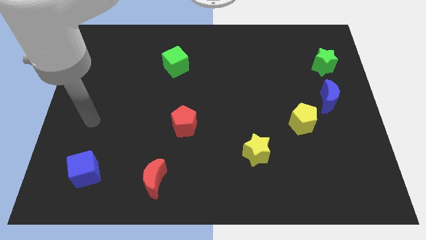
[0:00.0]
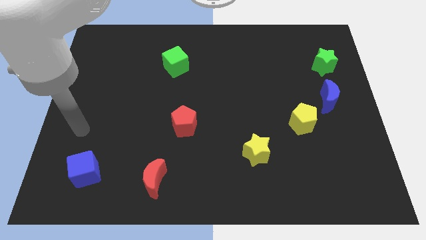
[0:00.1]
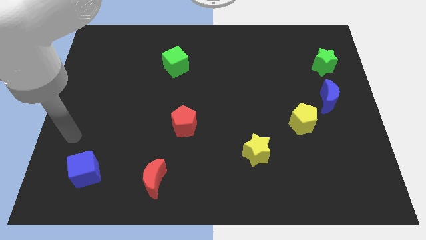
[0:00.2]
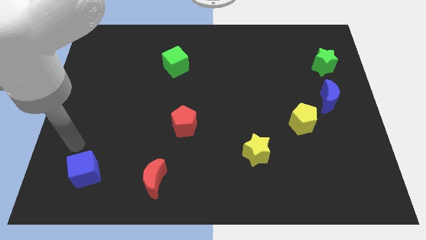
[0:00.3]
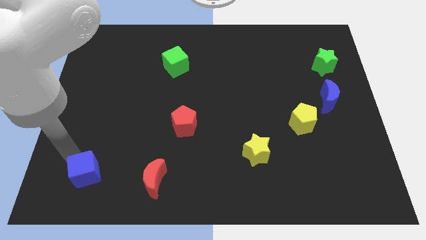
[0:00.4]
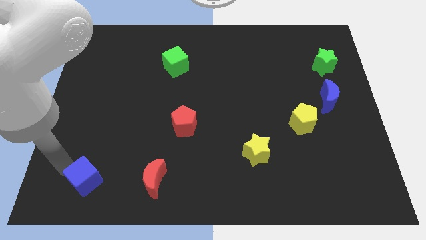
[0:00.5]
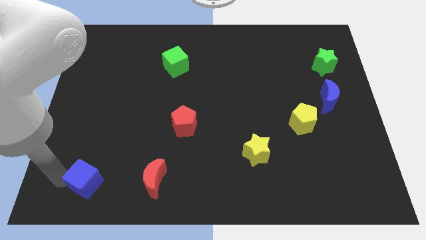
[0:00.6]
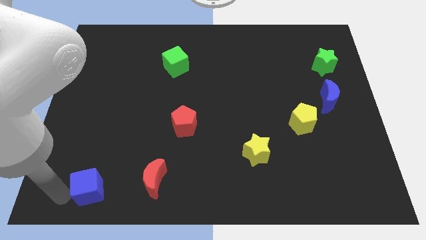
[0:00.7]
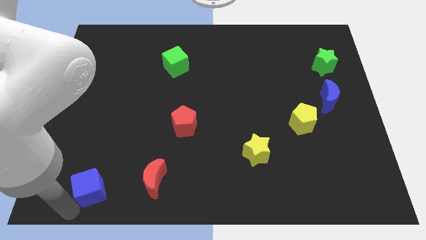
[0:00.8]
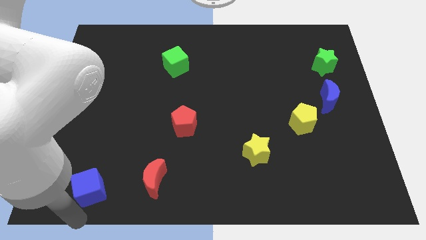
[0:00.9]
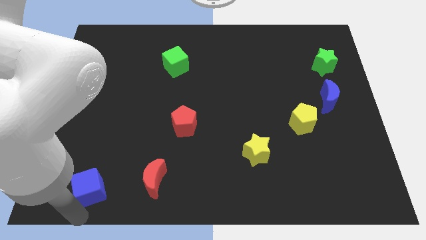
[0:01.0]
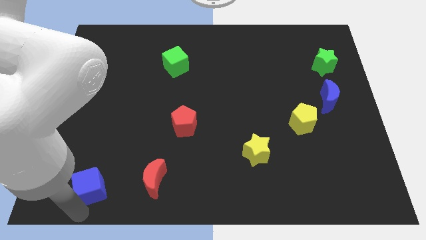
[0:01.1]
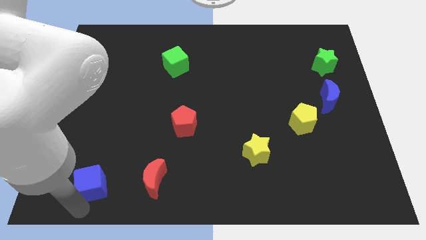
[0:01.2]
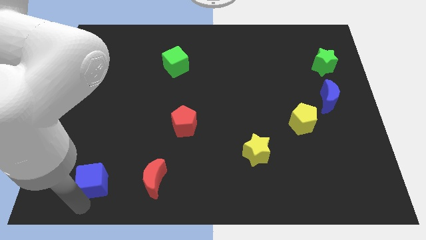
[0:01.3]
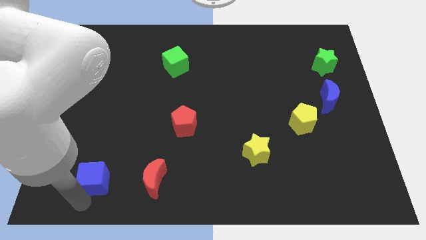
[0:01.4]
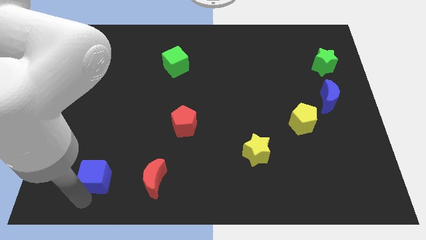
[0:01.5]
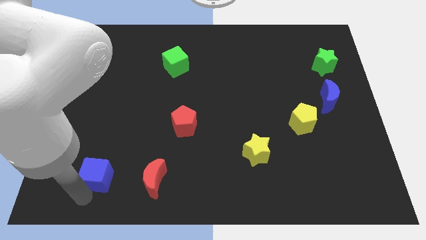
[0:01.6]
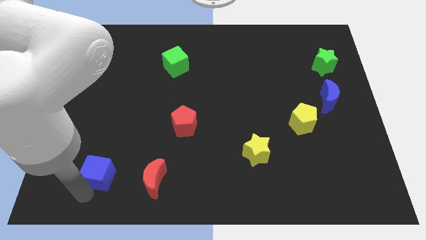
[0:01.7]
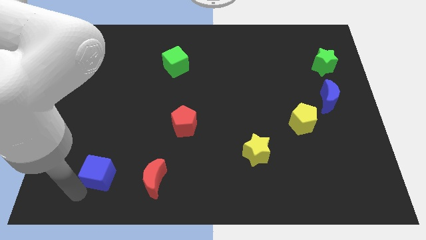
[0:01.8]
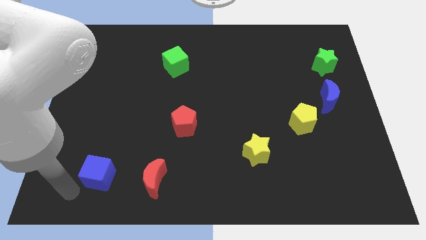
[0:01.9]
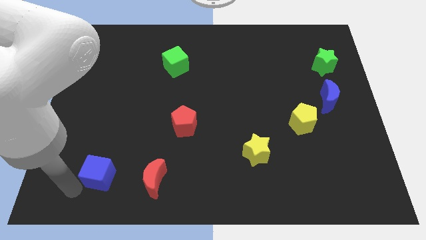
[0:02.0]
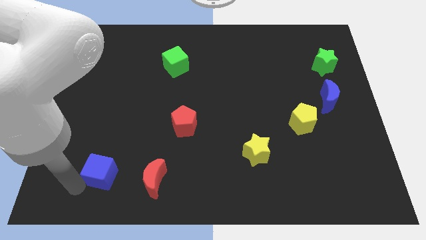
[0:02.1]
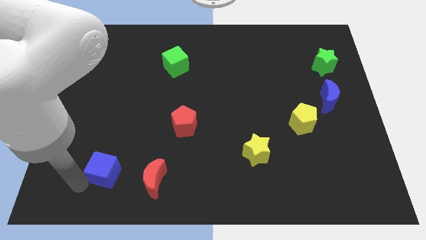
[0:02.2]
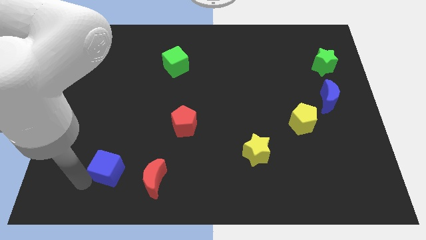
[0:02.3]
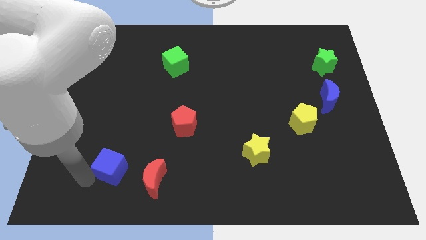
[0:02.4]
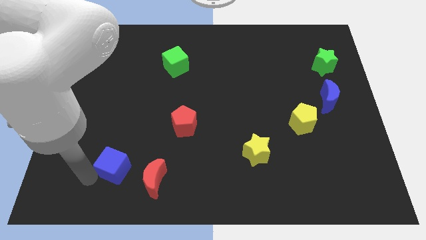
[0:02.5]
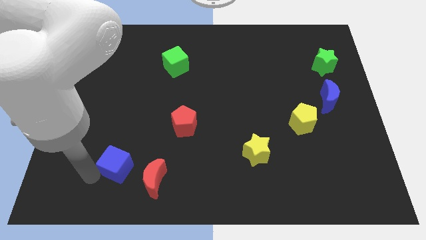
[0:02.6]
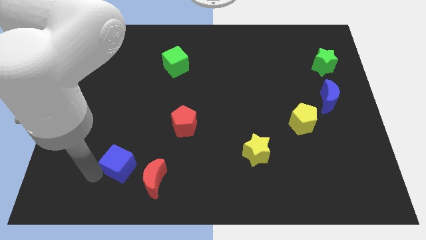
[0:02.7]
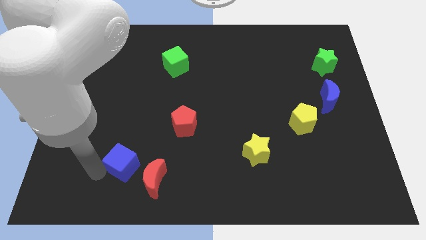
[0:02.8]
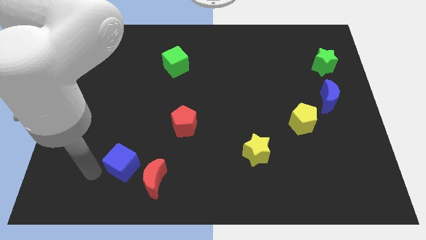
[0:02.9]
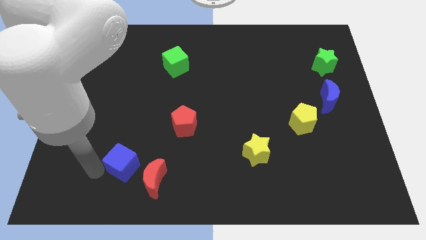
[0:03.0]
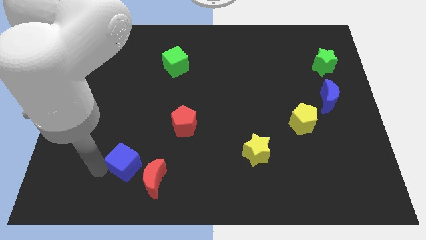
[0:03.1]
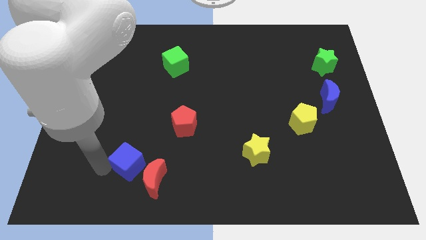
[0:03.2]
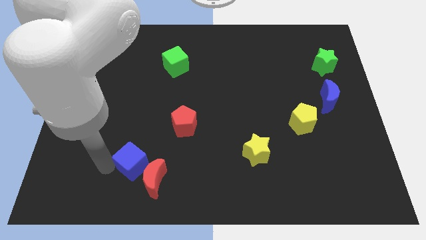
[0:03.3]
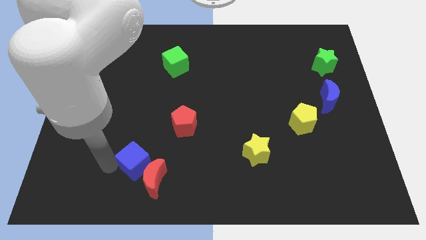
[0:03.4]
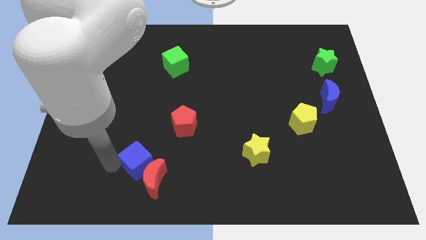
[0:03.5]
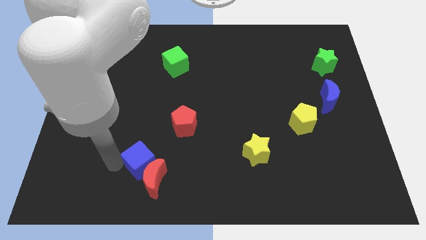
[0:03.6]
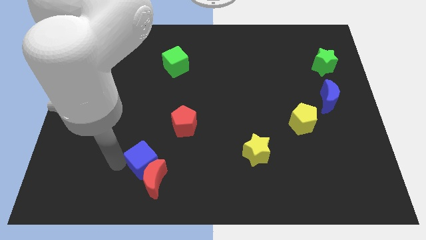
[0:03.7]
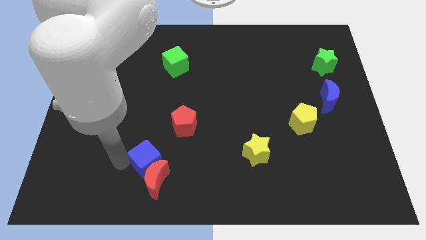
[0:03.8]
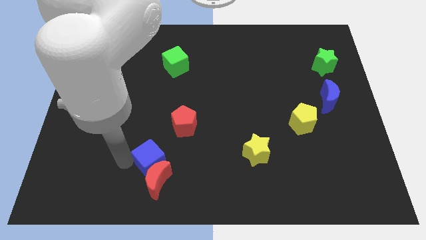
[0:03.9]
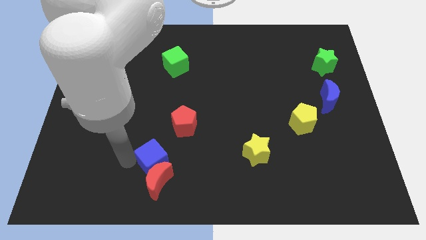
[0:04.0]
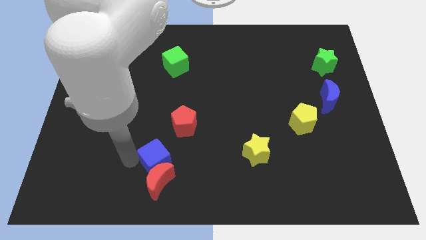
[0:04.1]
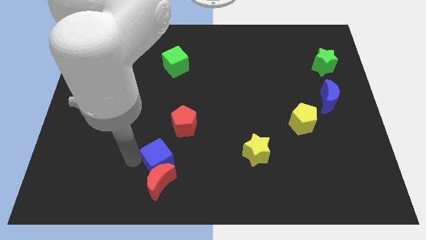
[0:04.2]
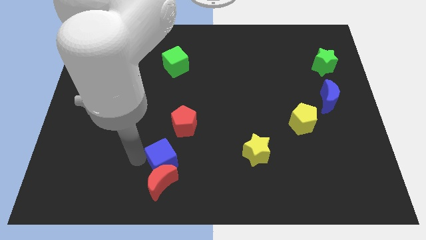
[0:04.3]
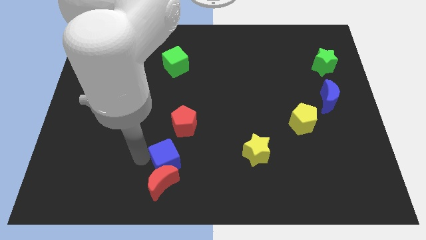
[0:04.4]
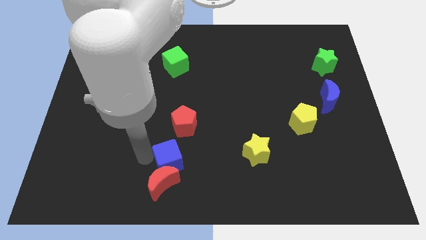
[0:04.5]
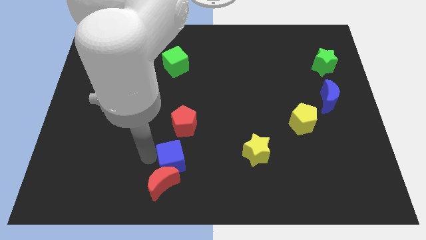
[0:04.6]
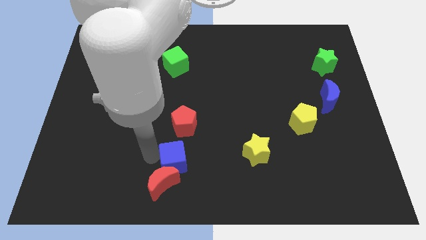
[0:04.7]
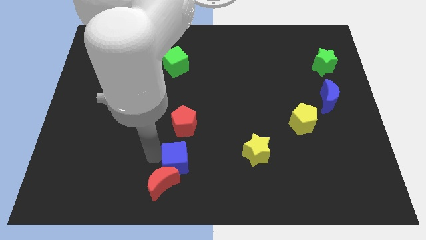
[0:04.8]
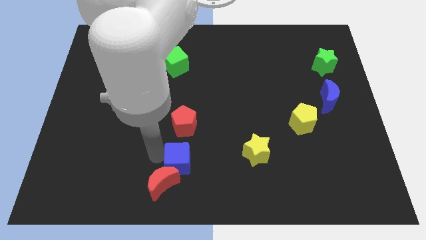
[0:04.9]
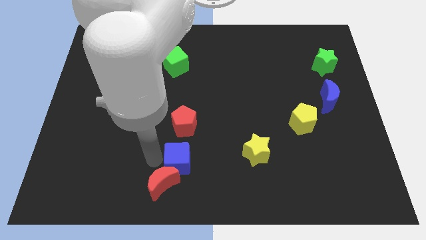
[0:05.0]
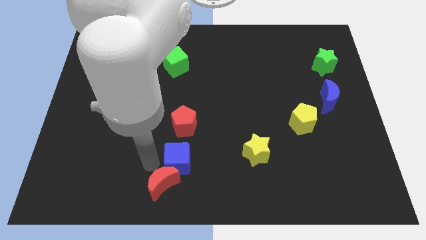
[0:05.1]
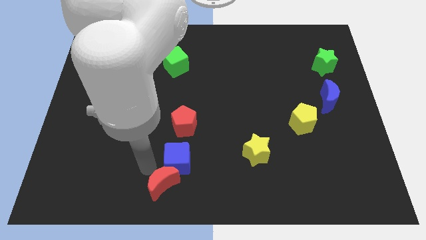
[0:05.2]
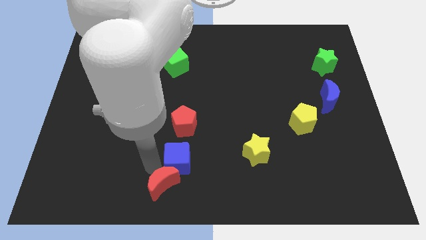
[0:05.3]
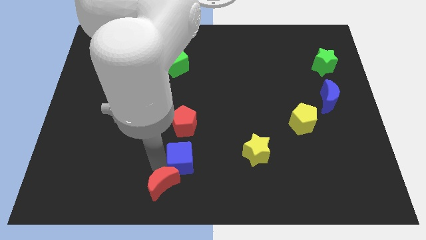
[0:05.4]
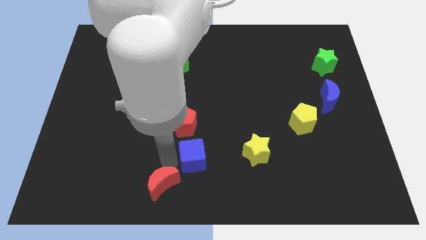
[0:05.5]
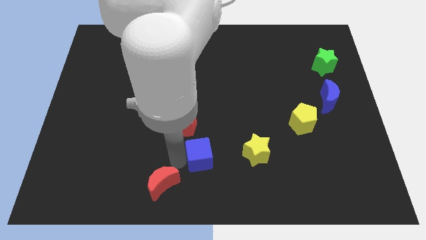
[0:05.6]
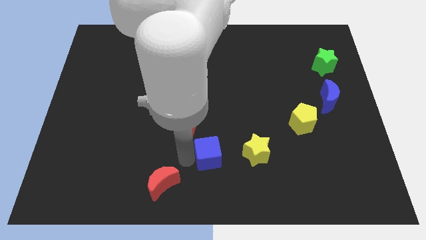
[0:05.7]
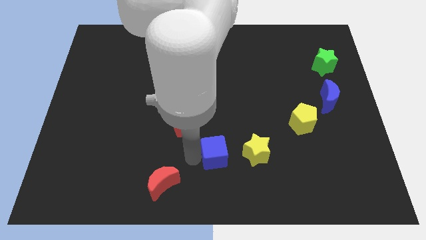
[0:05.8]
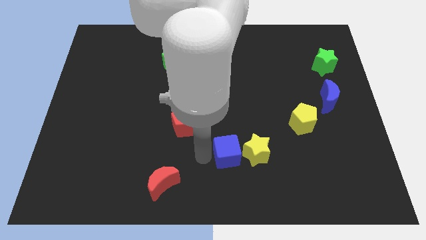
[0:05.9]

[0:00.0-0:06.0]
slide the blue cube close to the yellow star

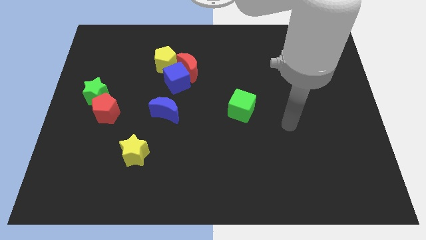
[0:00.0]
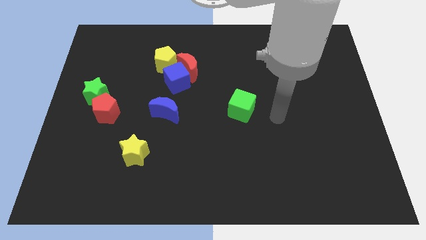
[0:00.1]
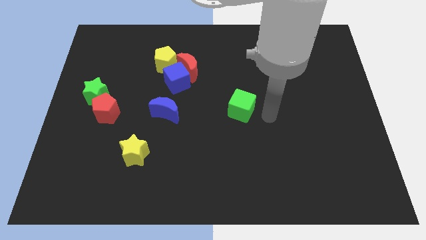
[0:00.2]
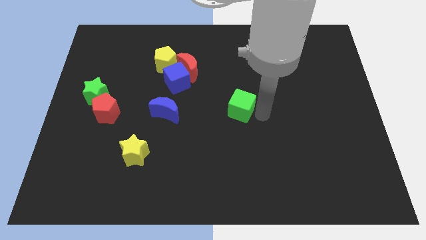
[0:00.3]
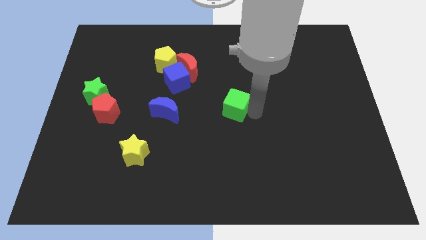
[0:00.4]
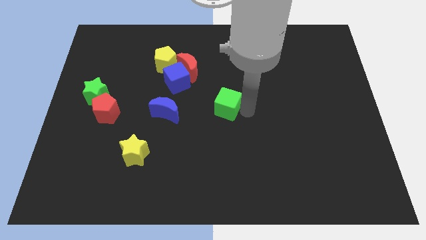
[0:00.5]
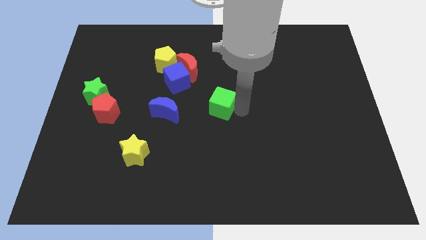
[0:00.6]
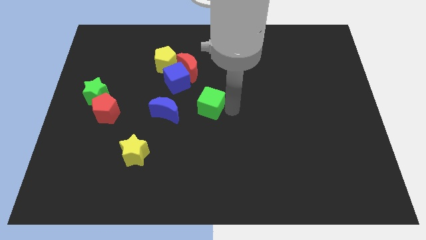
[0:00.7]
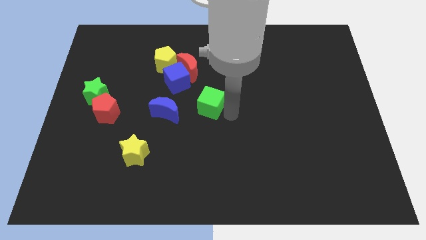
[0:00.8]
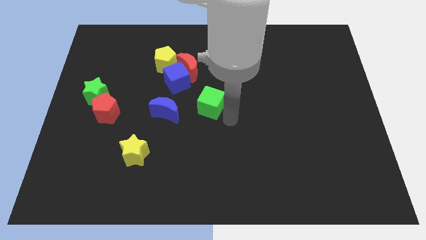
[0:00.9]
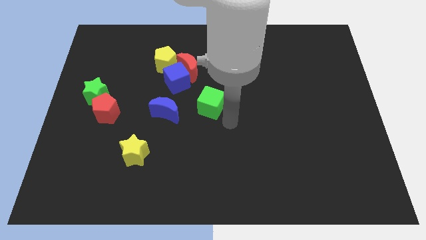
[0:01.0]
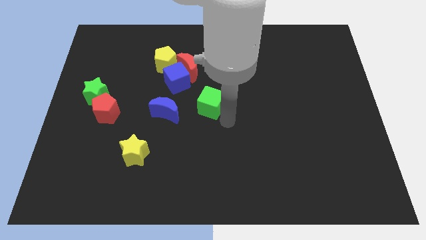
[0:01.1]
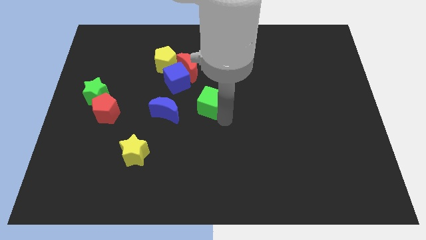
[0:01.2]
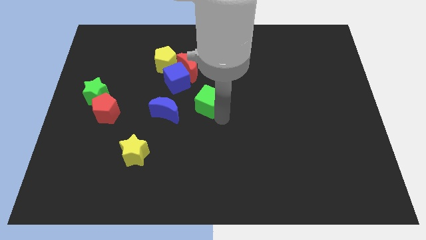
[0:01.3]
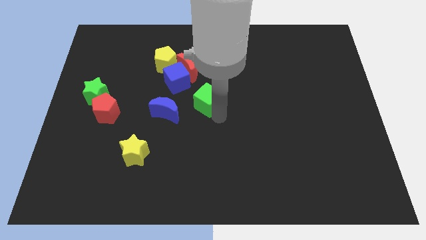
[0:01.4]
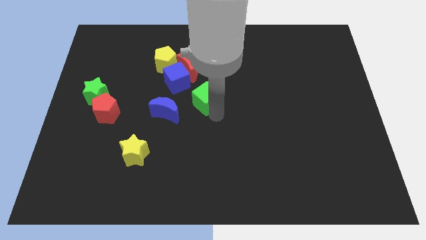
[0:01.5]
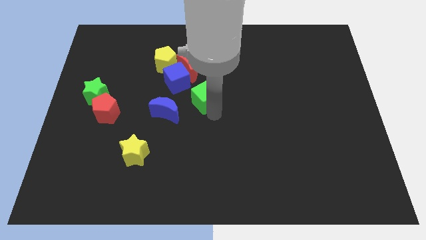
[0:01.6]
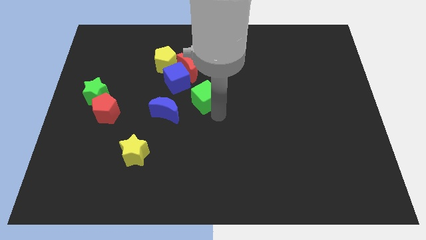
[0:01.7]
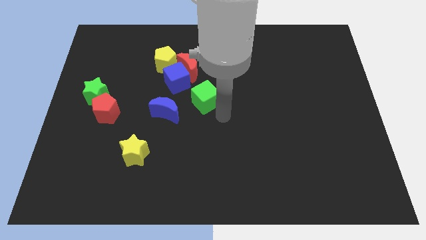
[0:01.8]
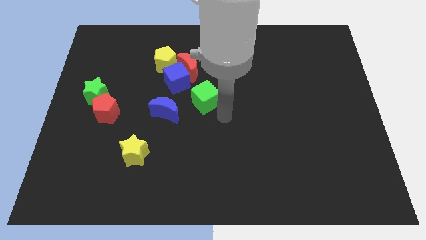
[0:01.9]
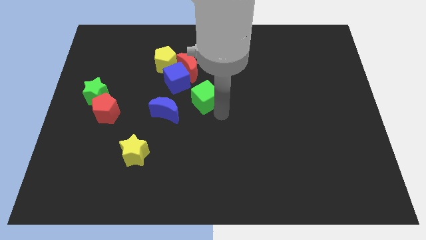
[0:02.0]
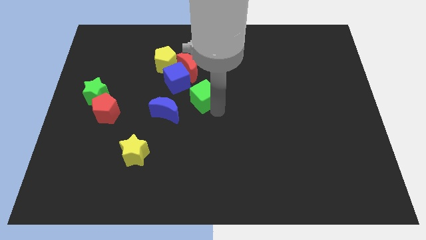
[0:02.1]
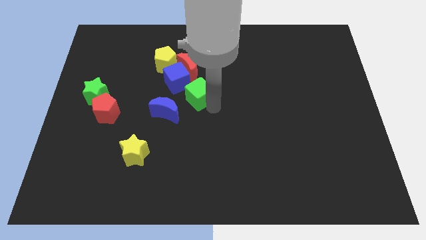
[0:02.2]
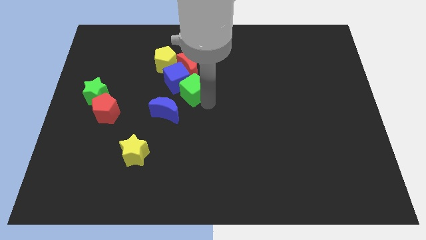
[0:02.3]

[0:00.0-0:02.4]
slide the green cube close to the blue cube
